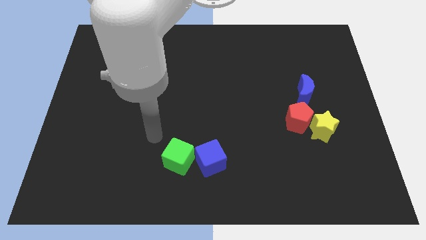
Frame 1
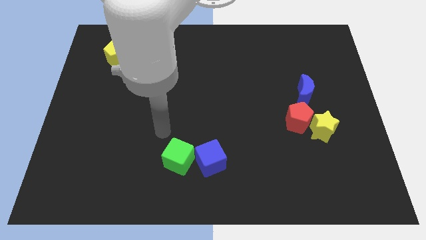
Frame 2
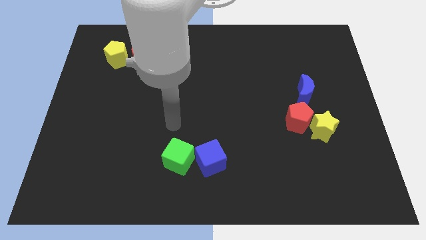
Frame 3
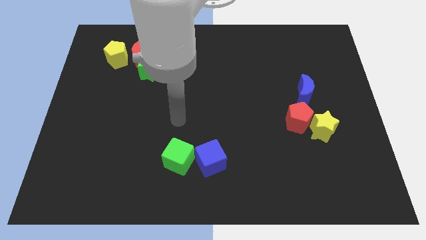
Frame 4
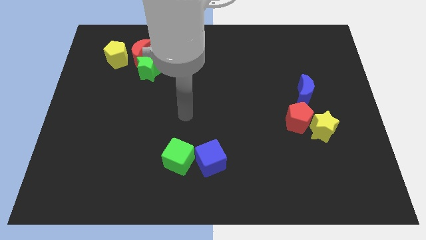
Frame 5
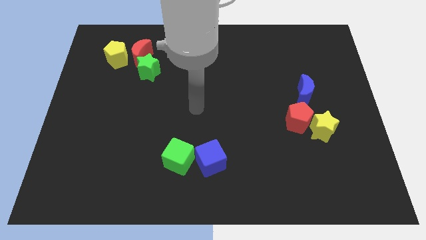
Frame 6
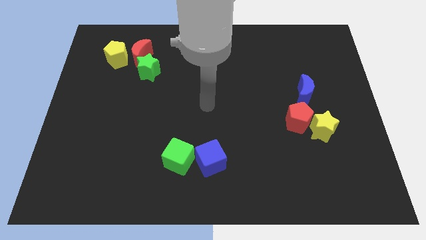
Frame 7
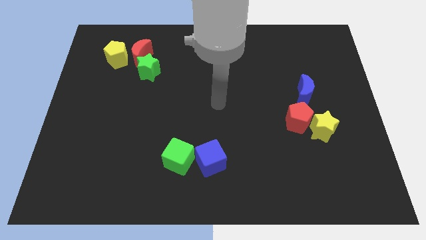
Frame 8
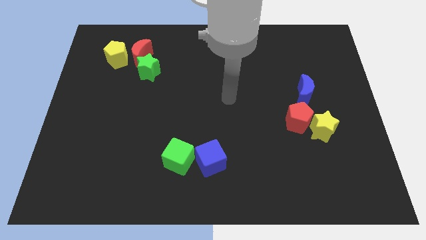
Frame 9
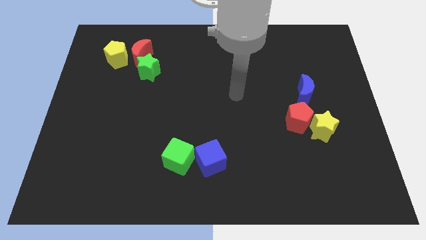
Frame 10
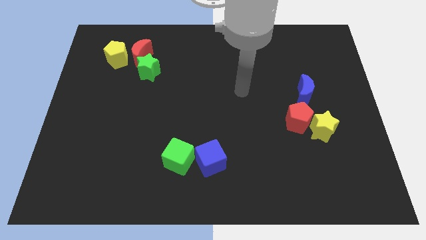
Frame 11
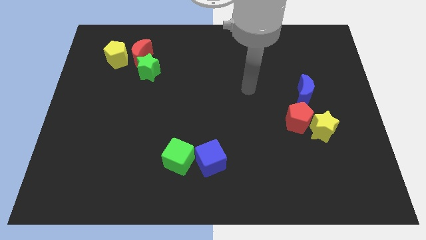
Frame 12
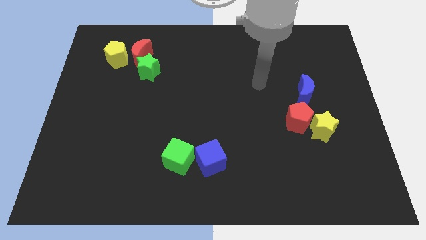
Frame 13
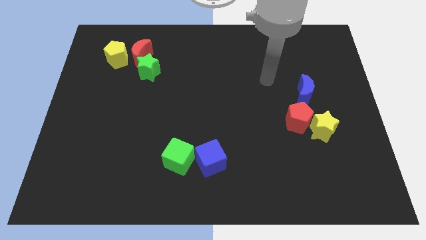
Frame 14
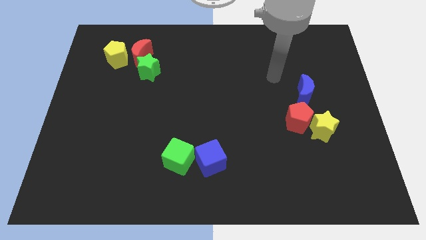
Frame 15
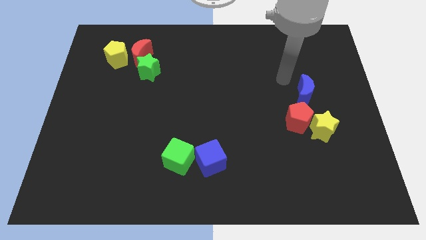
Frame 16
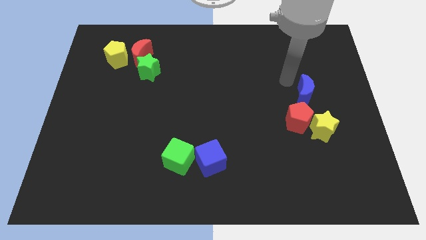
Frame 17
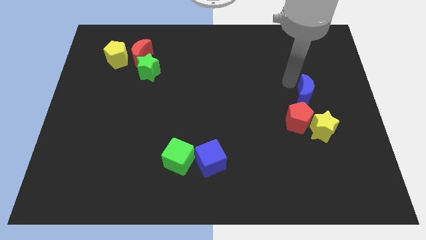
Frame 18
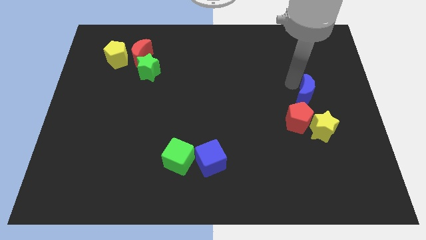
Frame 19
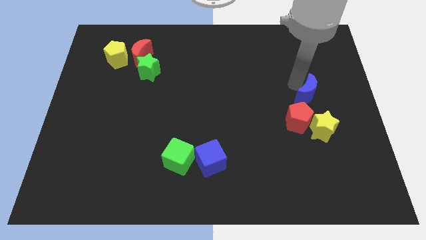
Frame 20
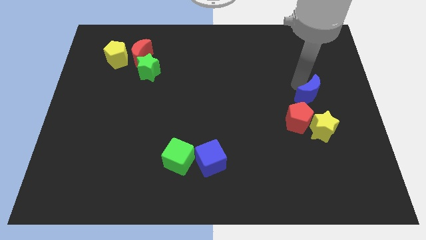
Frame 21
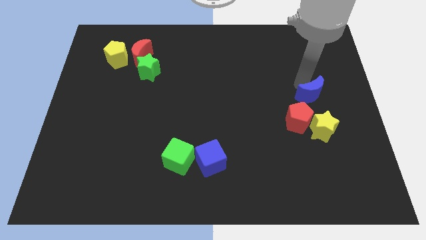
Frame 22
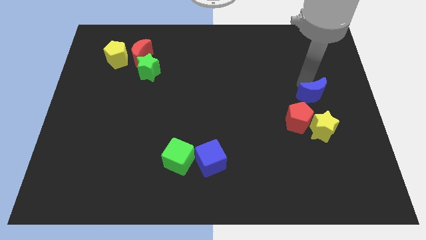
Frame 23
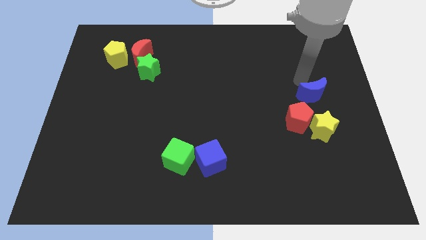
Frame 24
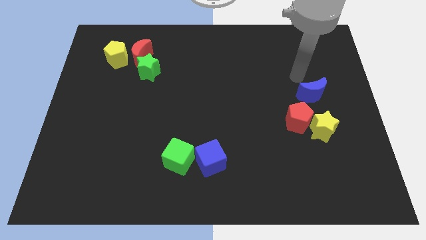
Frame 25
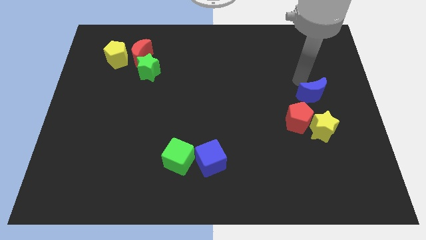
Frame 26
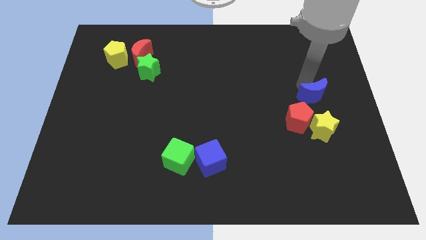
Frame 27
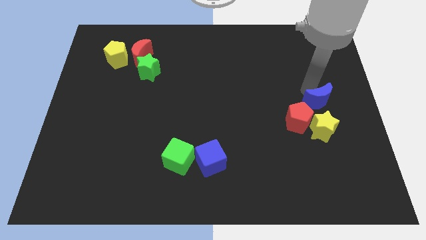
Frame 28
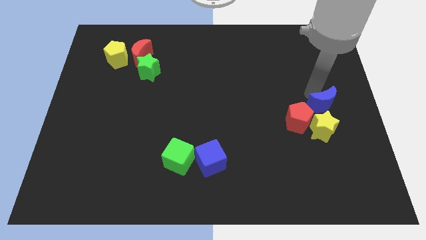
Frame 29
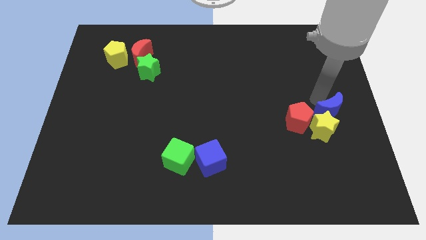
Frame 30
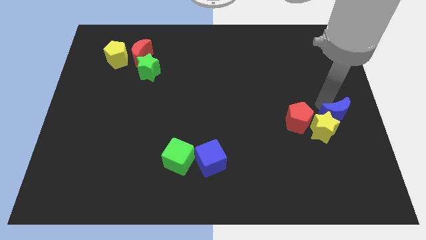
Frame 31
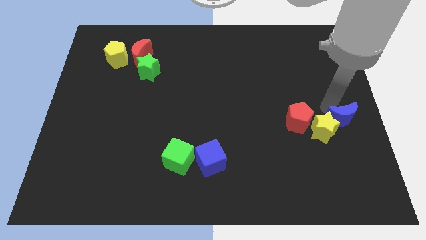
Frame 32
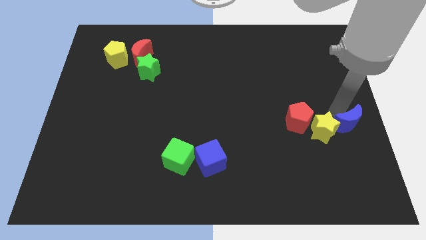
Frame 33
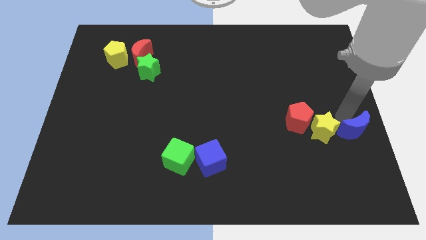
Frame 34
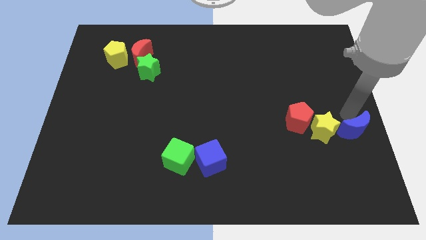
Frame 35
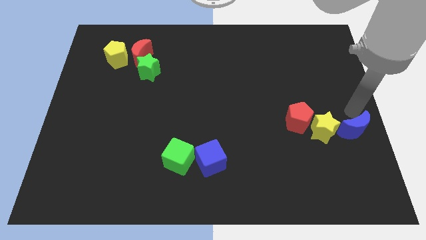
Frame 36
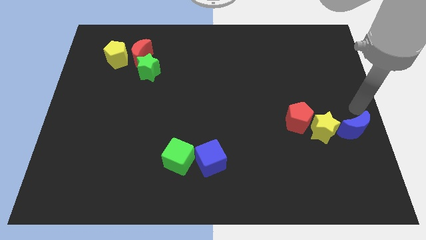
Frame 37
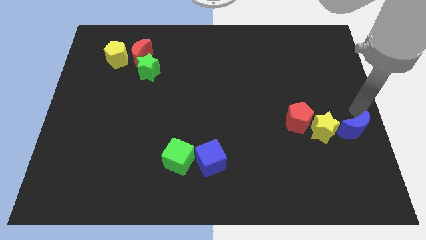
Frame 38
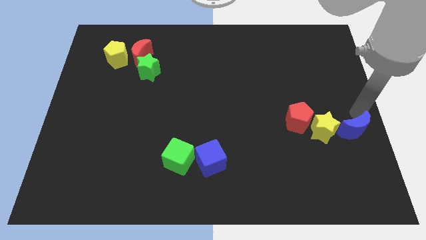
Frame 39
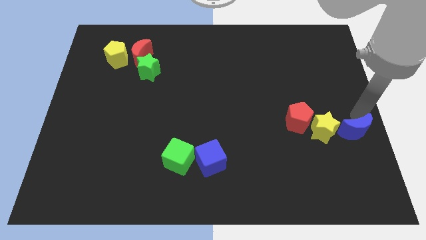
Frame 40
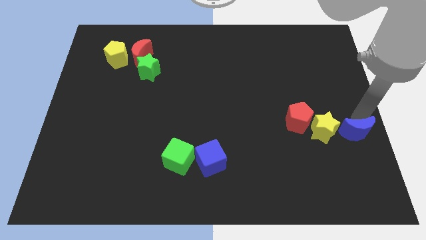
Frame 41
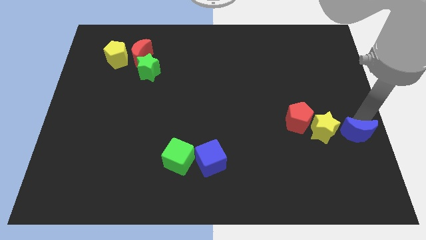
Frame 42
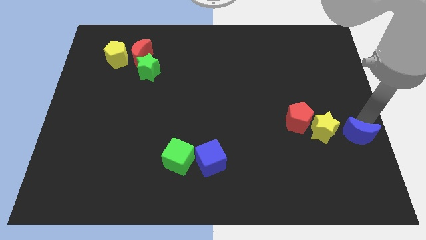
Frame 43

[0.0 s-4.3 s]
slightly move the blue moon down

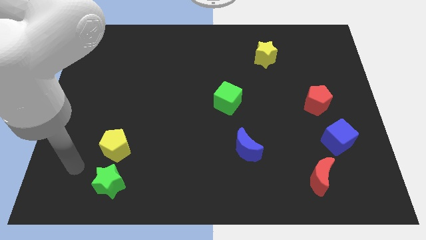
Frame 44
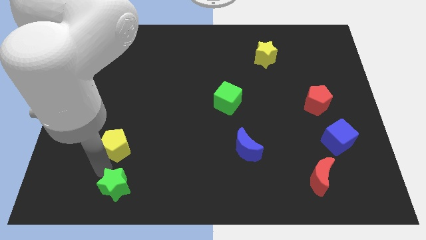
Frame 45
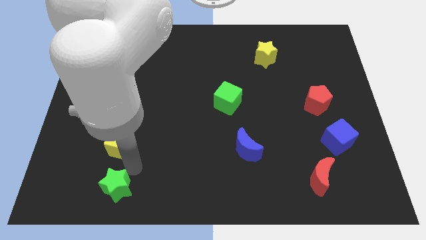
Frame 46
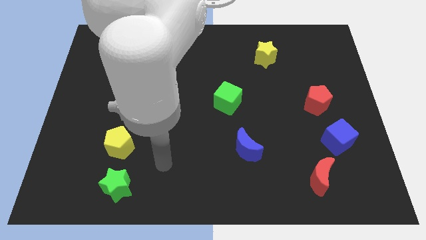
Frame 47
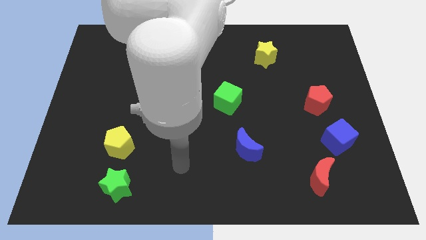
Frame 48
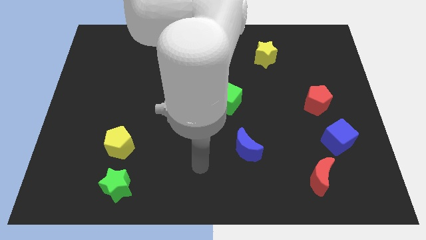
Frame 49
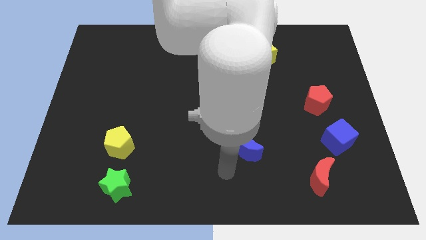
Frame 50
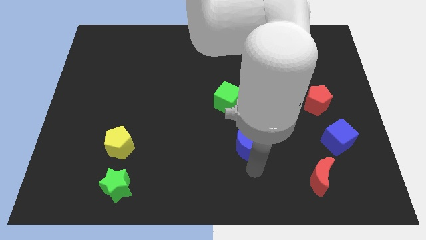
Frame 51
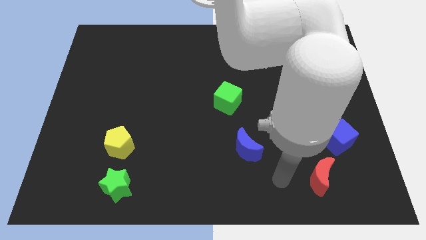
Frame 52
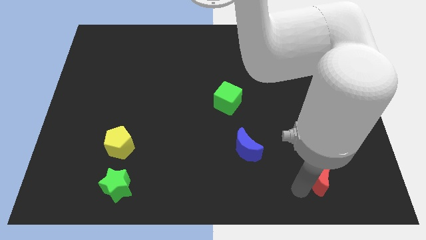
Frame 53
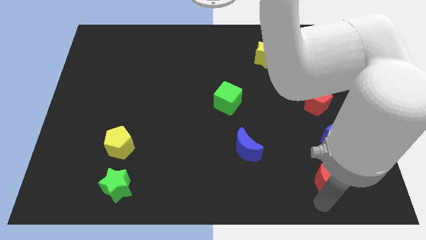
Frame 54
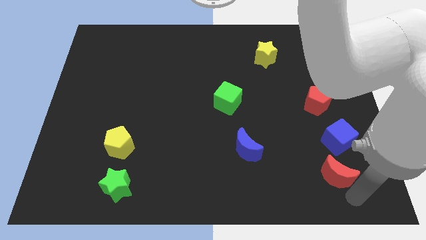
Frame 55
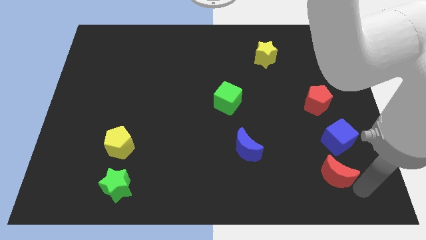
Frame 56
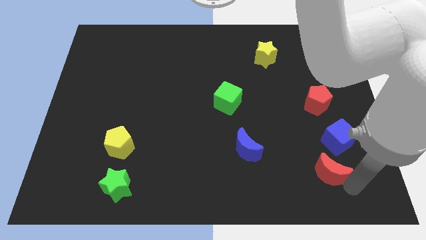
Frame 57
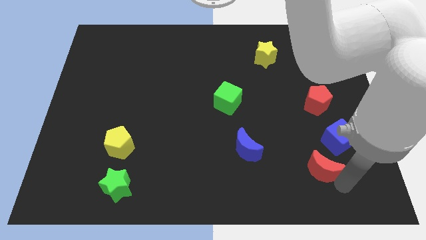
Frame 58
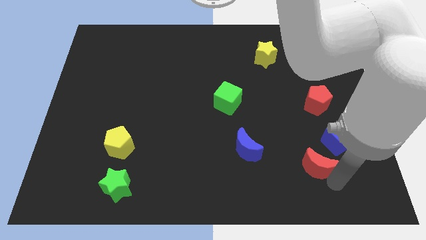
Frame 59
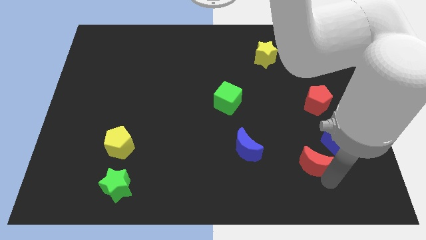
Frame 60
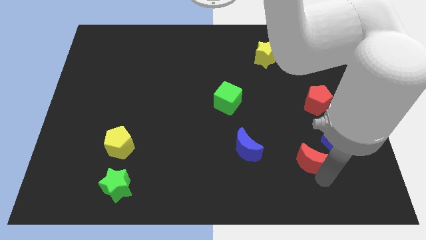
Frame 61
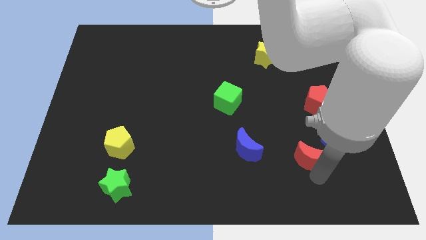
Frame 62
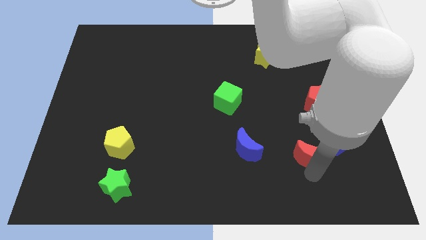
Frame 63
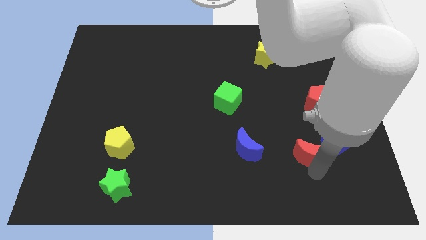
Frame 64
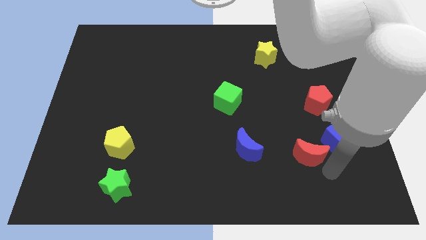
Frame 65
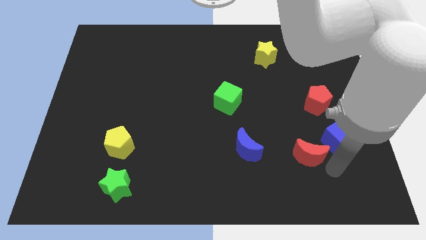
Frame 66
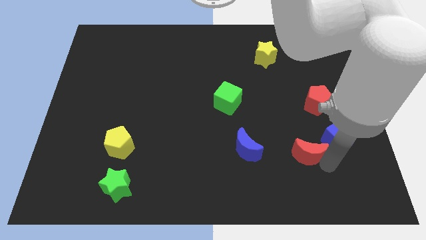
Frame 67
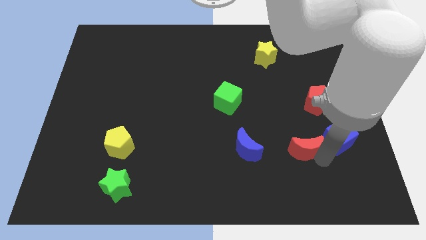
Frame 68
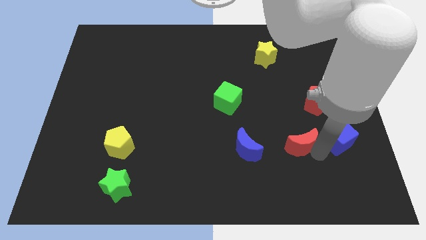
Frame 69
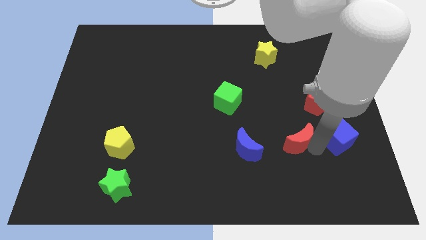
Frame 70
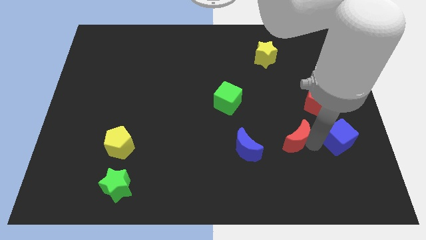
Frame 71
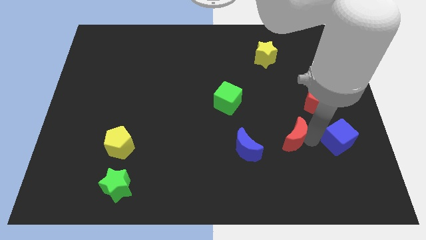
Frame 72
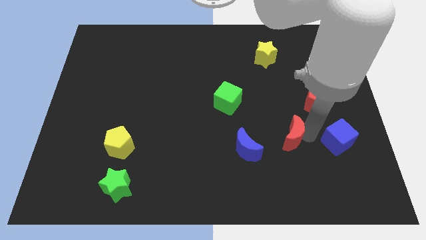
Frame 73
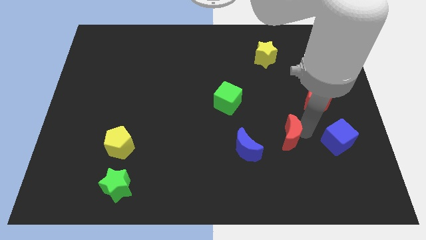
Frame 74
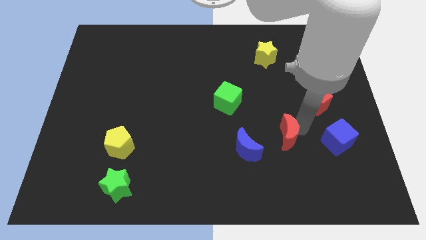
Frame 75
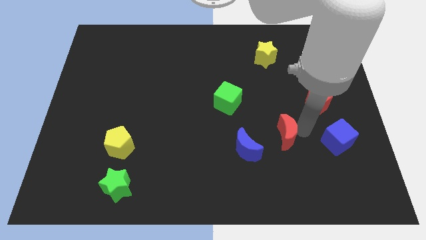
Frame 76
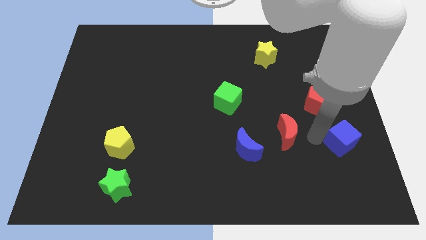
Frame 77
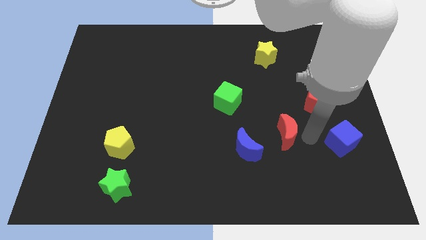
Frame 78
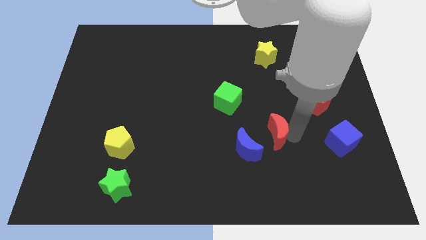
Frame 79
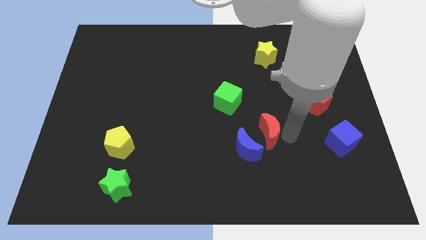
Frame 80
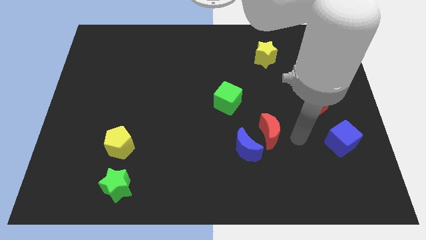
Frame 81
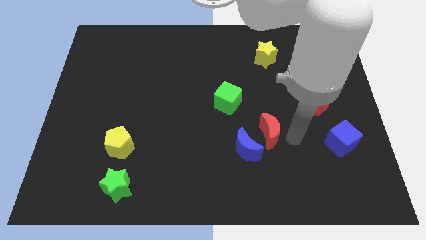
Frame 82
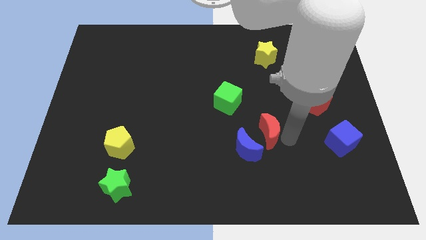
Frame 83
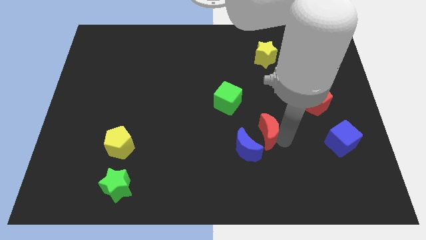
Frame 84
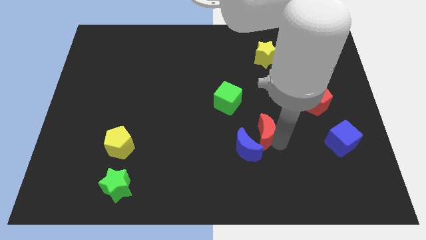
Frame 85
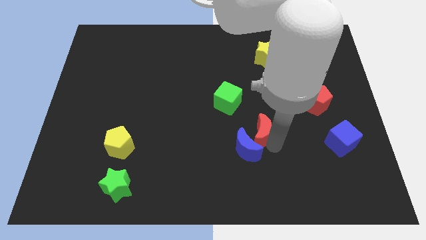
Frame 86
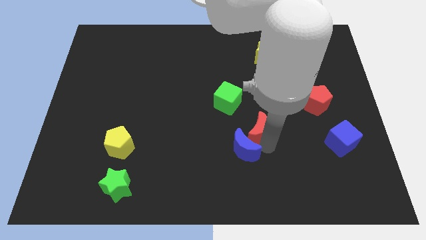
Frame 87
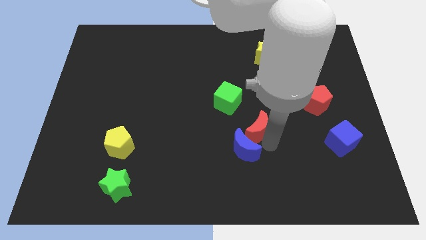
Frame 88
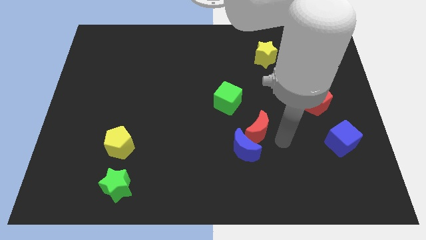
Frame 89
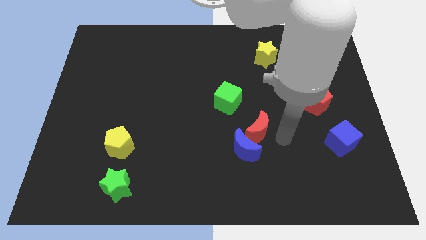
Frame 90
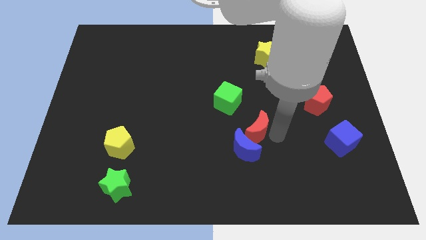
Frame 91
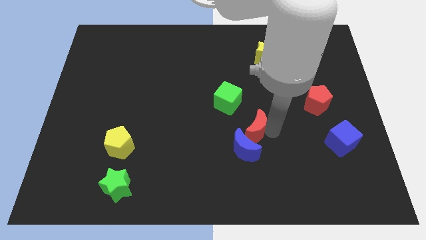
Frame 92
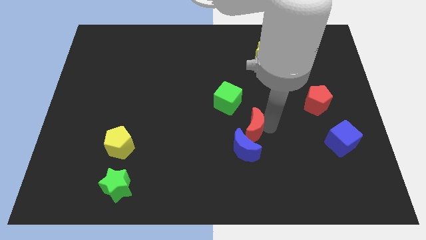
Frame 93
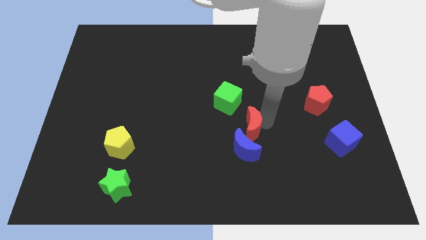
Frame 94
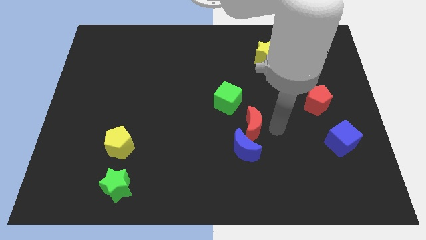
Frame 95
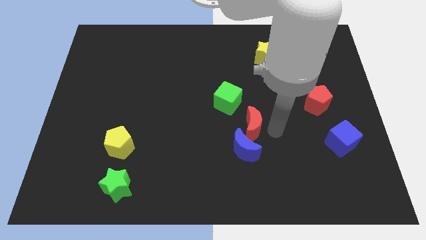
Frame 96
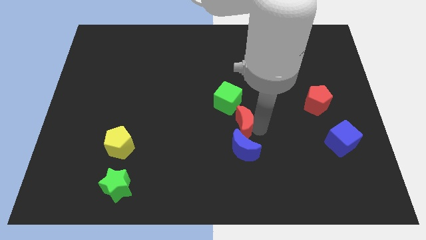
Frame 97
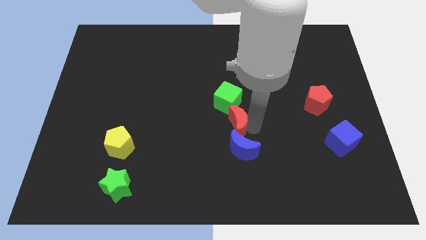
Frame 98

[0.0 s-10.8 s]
move the red moon diagonally up and to the left
